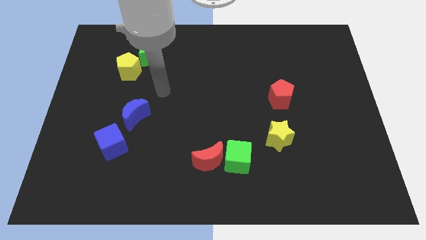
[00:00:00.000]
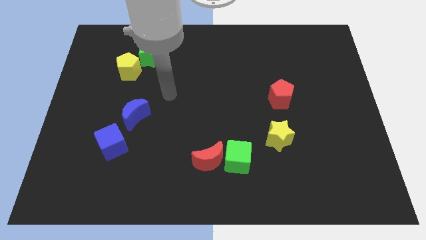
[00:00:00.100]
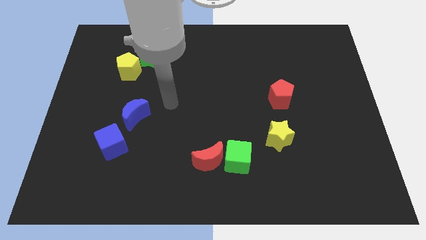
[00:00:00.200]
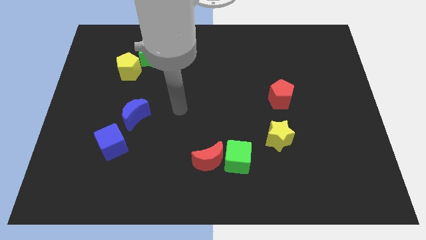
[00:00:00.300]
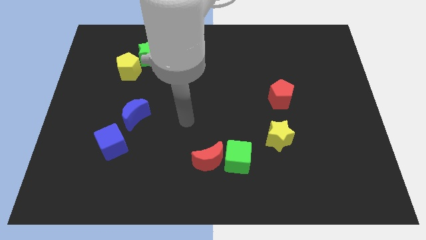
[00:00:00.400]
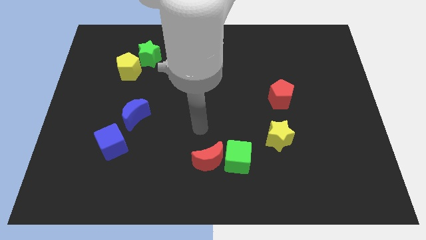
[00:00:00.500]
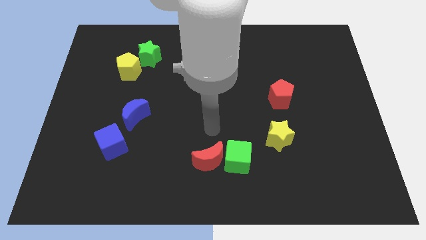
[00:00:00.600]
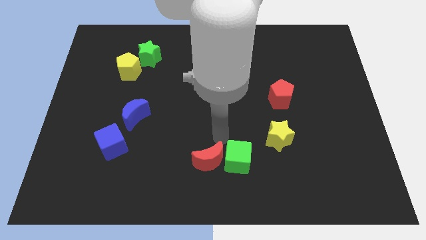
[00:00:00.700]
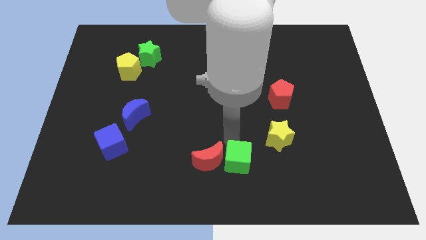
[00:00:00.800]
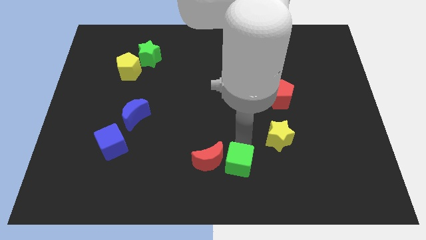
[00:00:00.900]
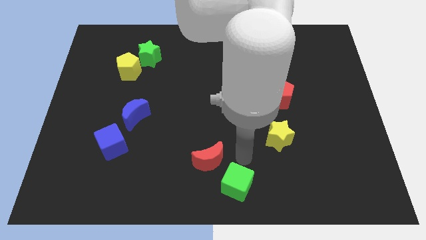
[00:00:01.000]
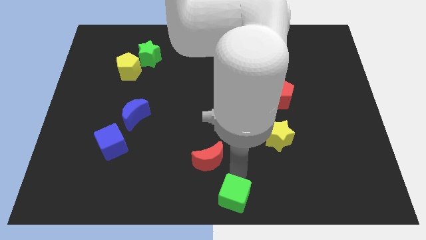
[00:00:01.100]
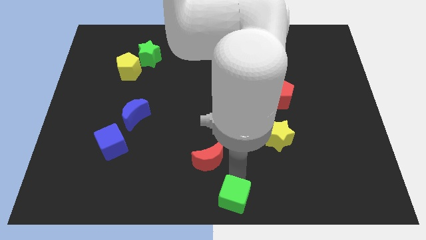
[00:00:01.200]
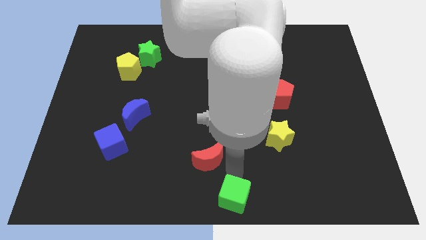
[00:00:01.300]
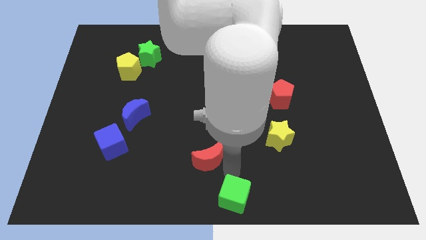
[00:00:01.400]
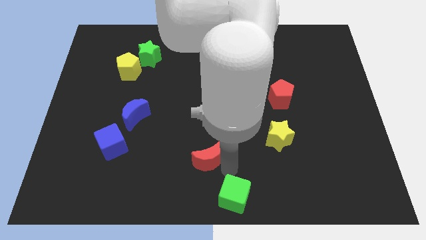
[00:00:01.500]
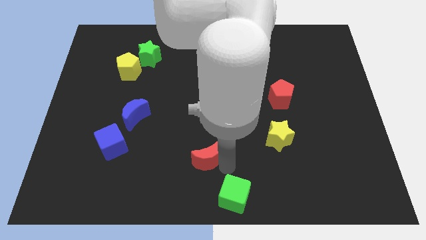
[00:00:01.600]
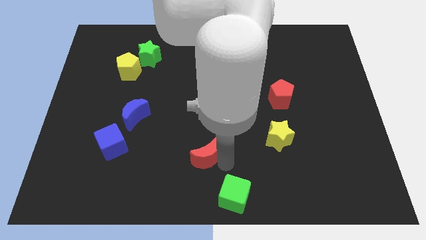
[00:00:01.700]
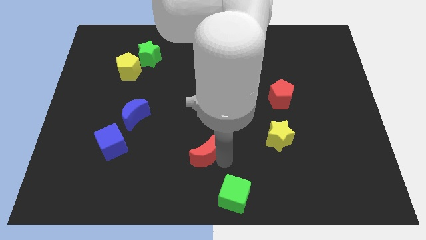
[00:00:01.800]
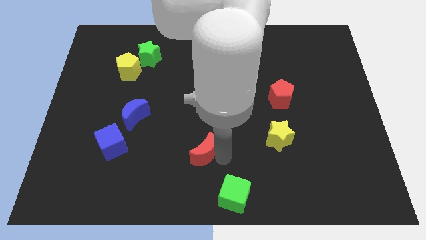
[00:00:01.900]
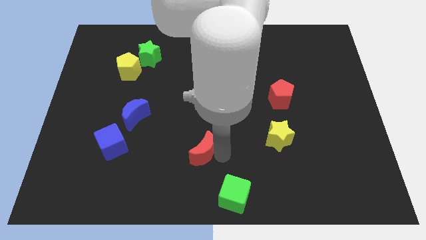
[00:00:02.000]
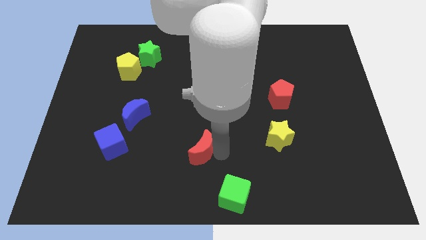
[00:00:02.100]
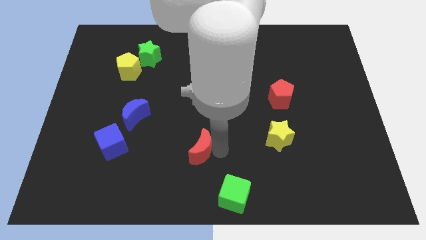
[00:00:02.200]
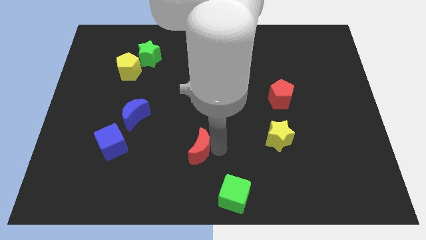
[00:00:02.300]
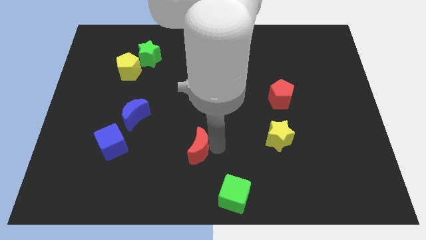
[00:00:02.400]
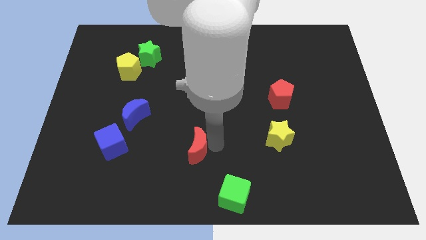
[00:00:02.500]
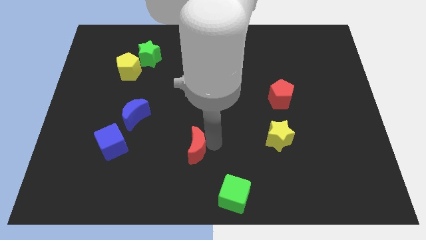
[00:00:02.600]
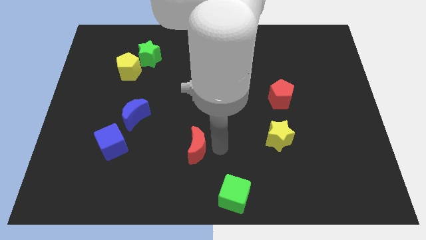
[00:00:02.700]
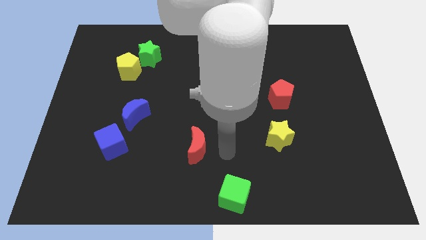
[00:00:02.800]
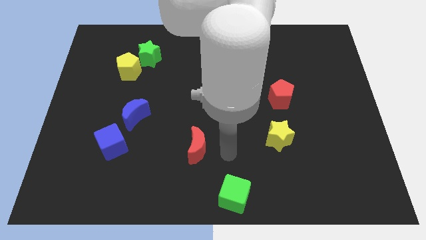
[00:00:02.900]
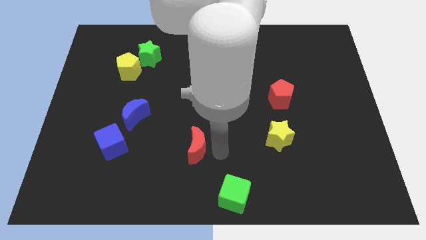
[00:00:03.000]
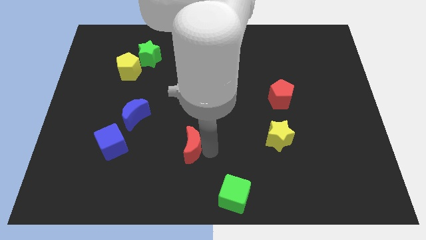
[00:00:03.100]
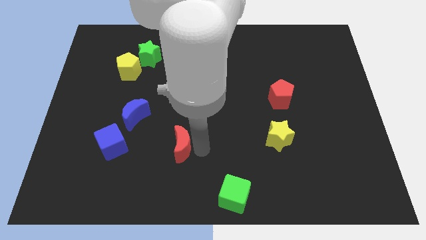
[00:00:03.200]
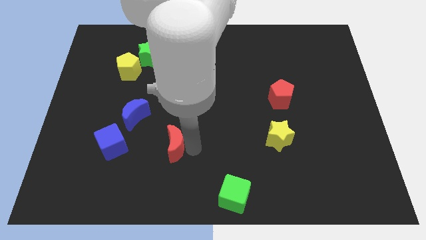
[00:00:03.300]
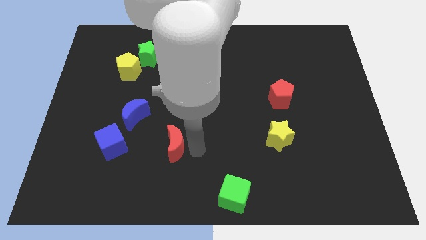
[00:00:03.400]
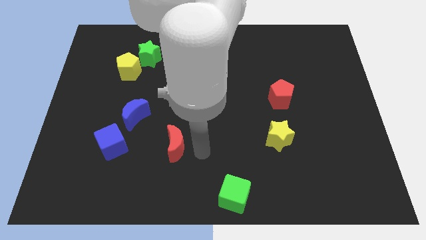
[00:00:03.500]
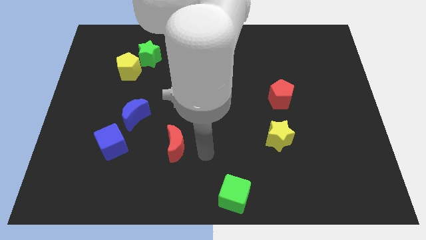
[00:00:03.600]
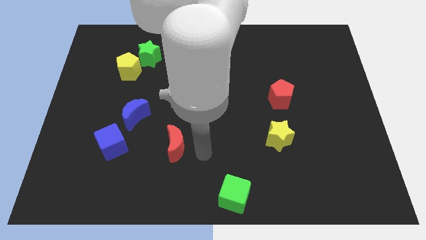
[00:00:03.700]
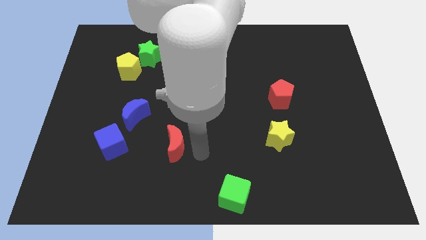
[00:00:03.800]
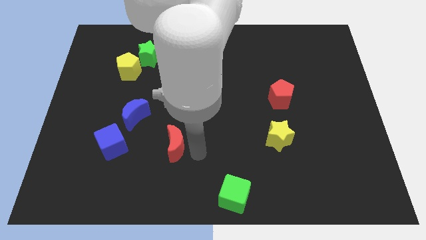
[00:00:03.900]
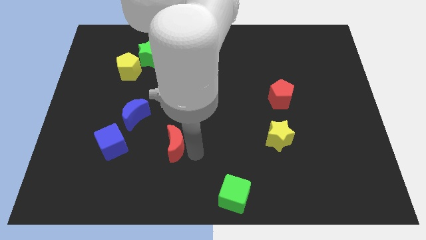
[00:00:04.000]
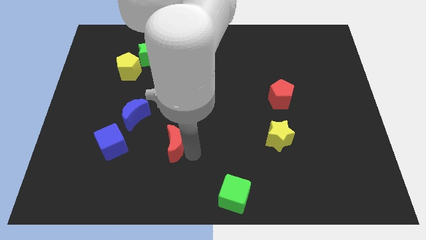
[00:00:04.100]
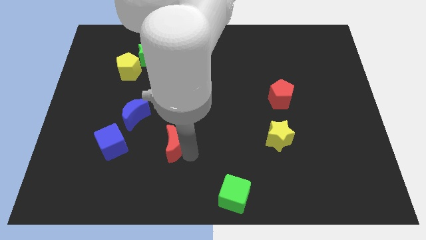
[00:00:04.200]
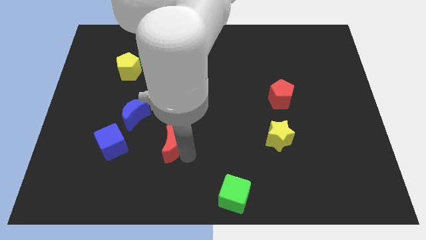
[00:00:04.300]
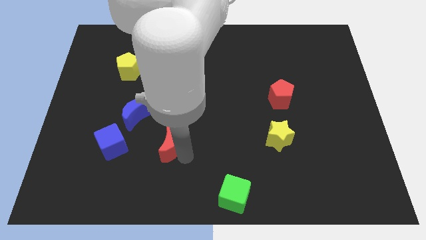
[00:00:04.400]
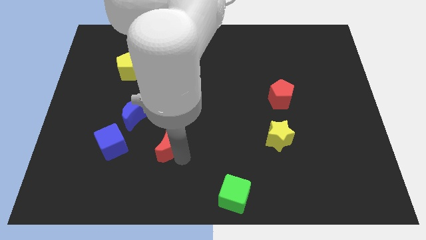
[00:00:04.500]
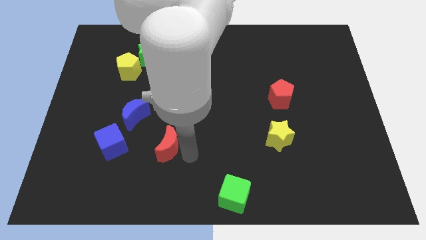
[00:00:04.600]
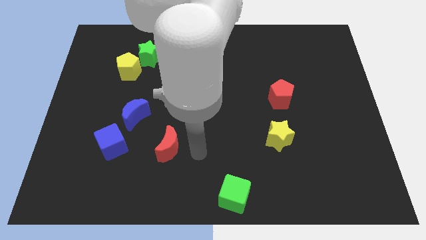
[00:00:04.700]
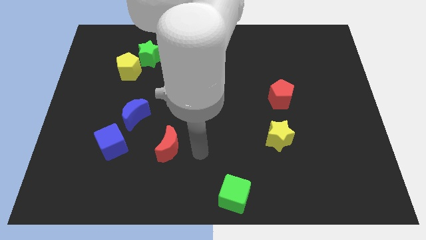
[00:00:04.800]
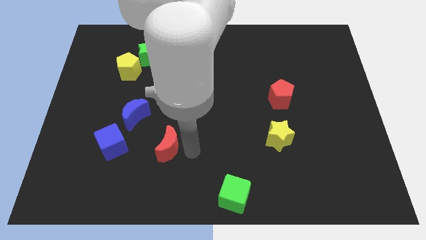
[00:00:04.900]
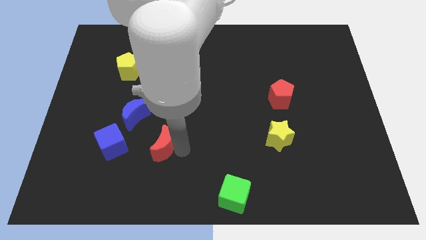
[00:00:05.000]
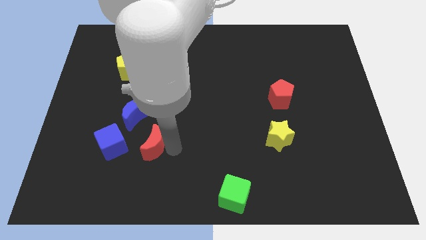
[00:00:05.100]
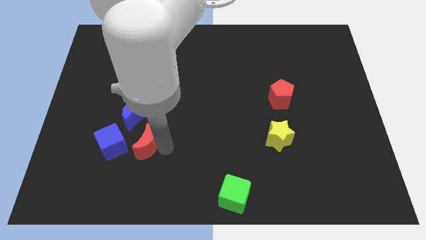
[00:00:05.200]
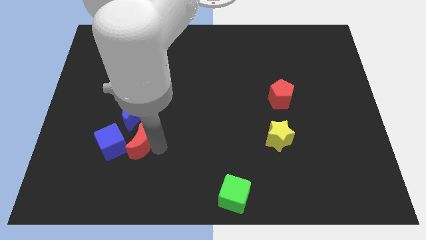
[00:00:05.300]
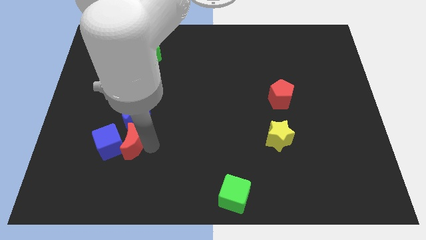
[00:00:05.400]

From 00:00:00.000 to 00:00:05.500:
slide the red moon towards the blue cube

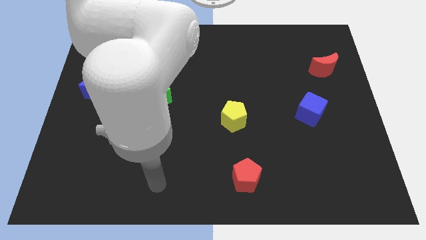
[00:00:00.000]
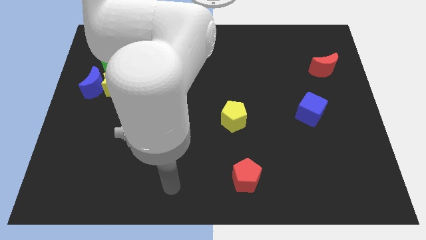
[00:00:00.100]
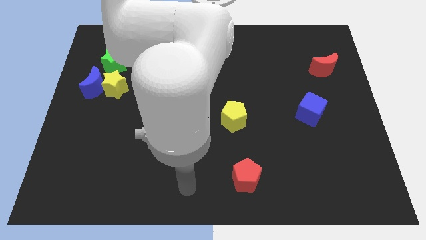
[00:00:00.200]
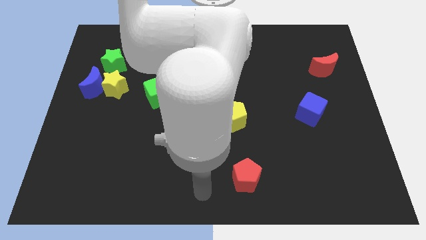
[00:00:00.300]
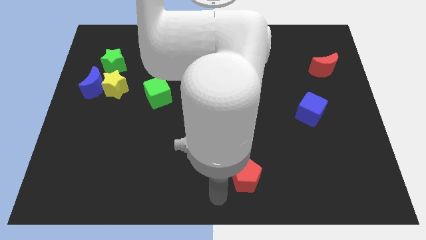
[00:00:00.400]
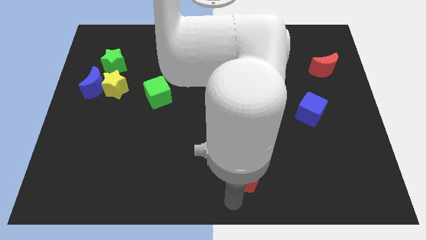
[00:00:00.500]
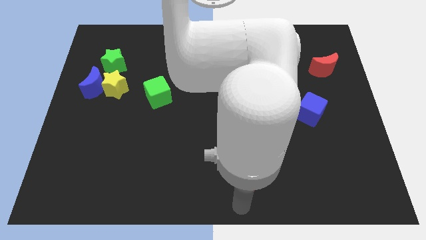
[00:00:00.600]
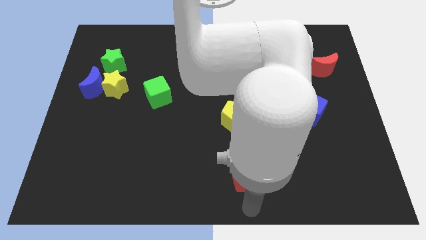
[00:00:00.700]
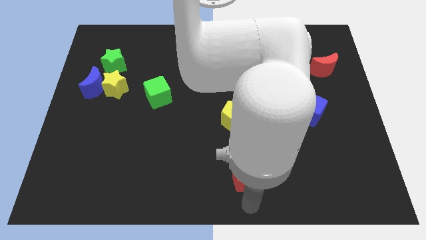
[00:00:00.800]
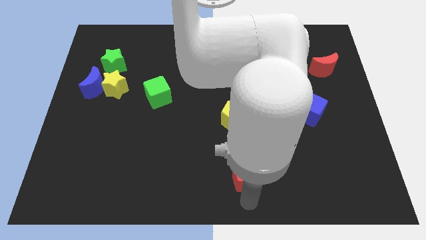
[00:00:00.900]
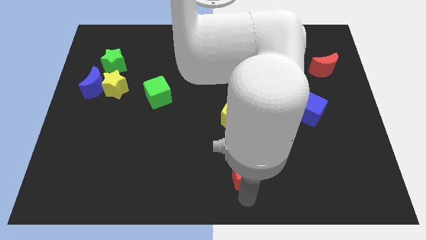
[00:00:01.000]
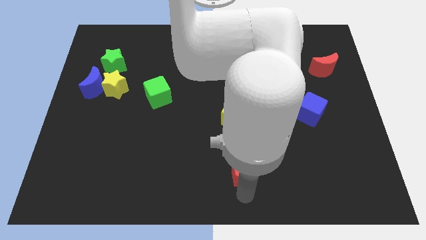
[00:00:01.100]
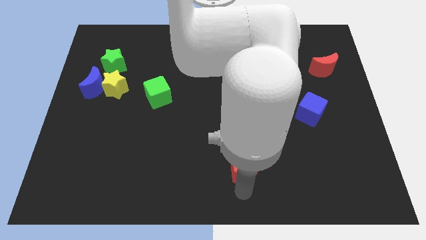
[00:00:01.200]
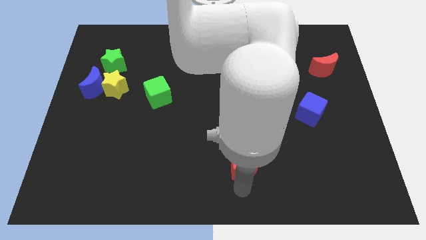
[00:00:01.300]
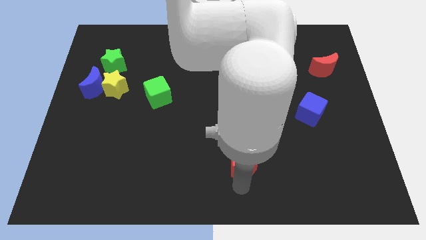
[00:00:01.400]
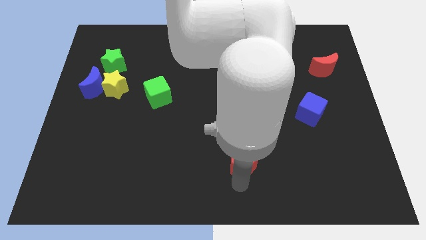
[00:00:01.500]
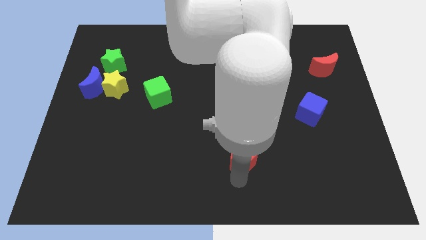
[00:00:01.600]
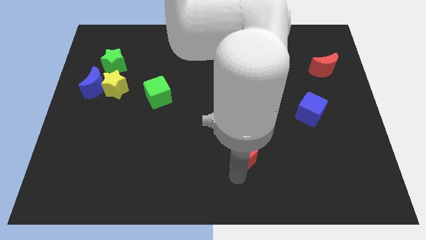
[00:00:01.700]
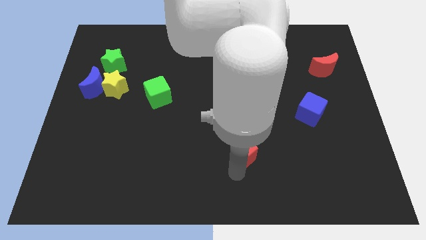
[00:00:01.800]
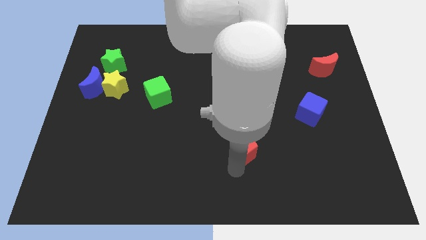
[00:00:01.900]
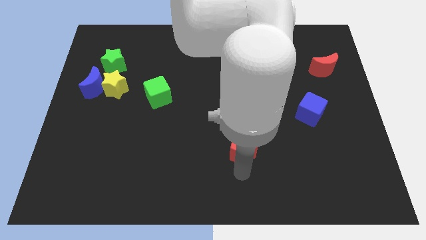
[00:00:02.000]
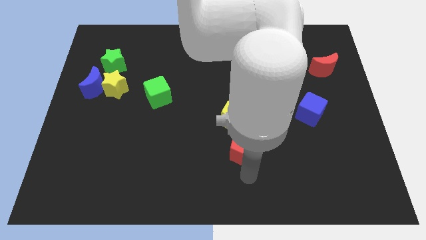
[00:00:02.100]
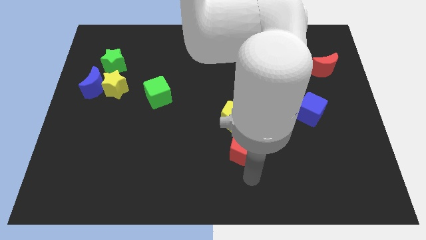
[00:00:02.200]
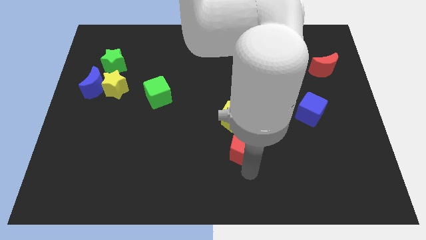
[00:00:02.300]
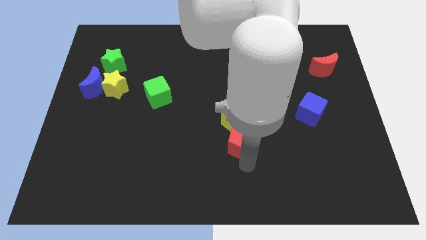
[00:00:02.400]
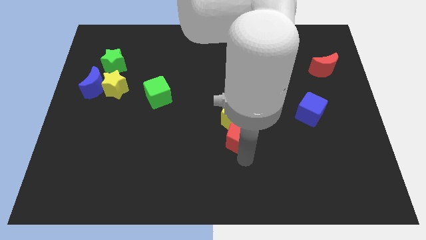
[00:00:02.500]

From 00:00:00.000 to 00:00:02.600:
put the red pentagon towards the yellow pentagon
